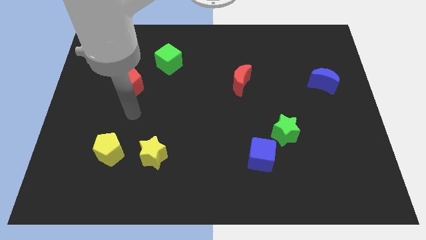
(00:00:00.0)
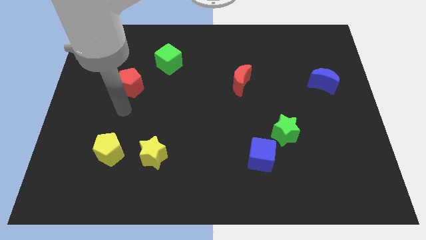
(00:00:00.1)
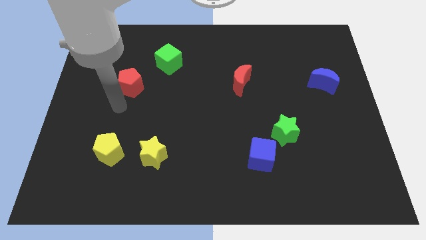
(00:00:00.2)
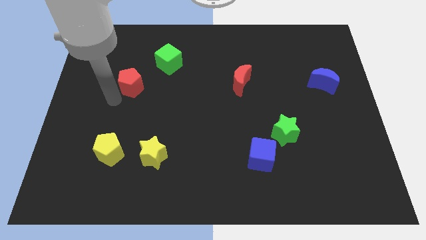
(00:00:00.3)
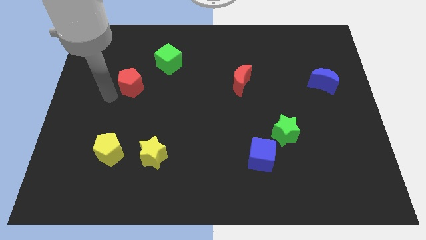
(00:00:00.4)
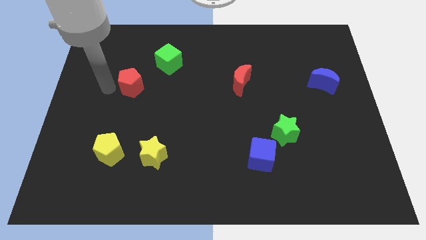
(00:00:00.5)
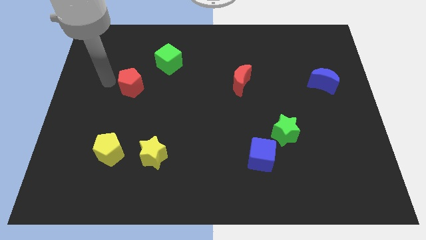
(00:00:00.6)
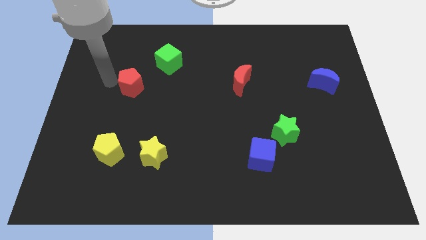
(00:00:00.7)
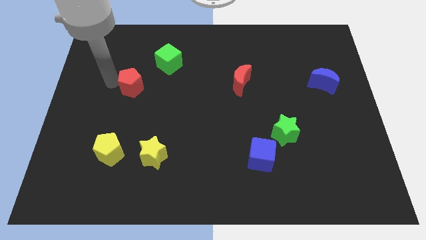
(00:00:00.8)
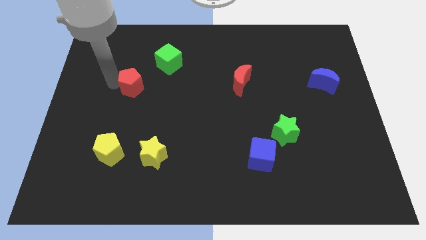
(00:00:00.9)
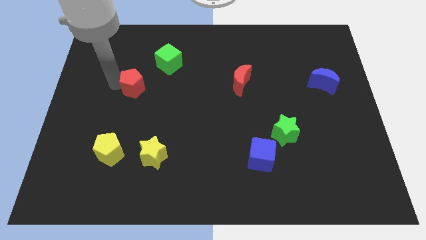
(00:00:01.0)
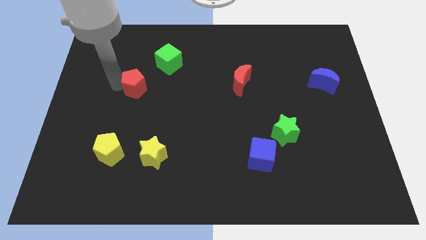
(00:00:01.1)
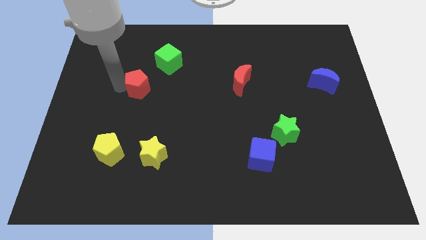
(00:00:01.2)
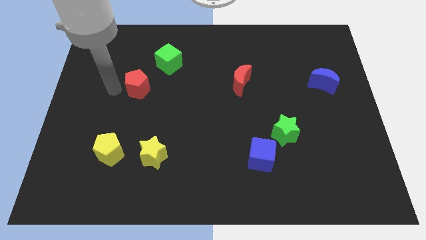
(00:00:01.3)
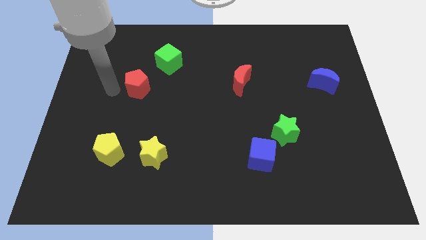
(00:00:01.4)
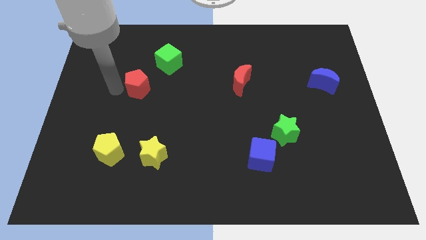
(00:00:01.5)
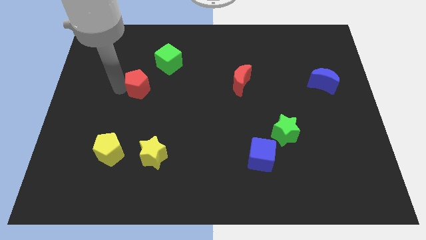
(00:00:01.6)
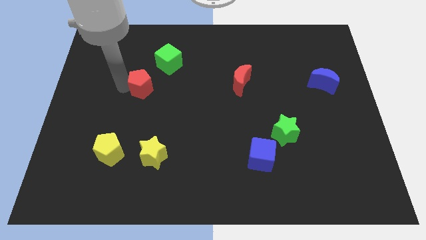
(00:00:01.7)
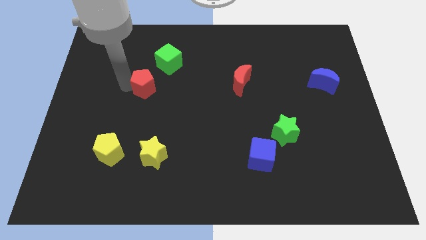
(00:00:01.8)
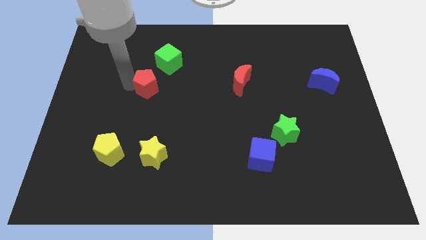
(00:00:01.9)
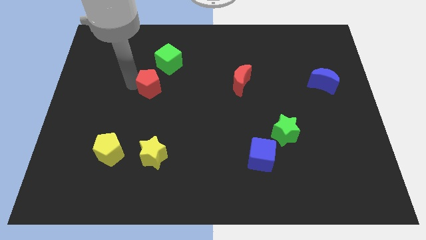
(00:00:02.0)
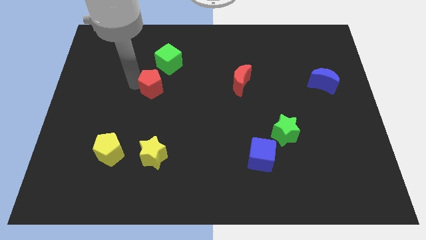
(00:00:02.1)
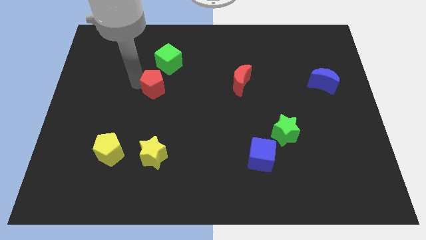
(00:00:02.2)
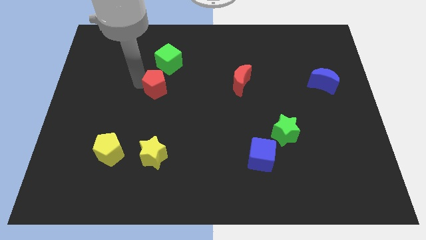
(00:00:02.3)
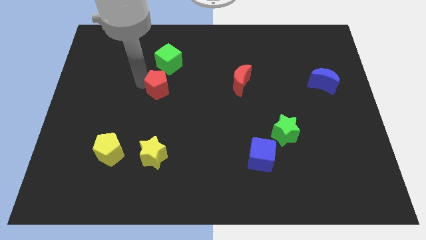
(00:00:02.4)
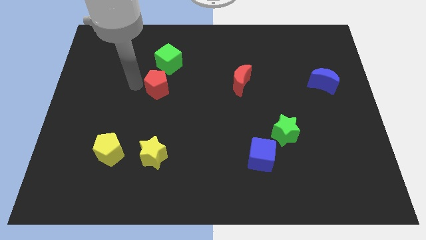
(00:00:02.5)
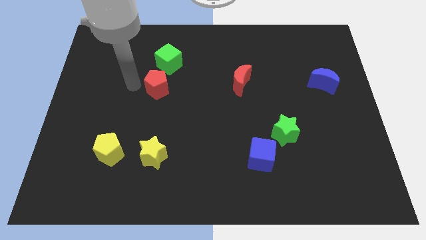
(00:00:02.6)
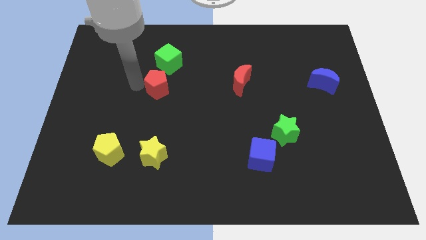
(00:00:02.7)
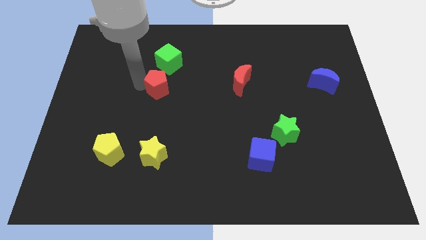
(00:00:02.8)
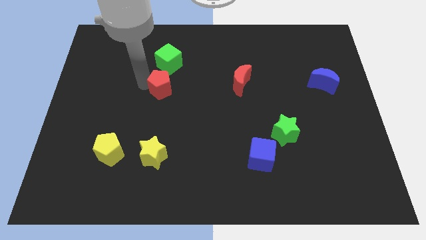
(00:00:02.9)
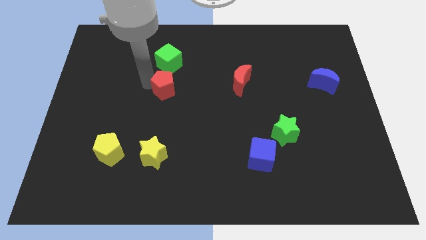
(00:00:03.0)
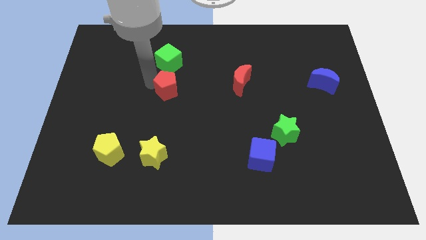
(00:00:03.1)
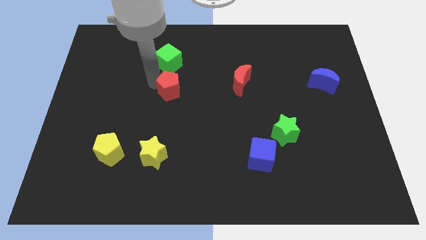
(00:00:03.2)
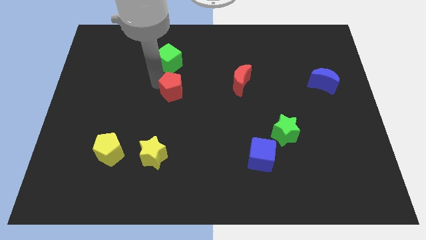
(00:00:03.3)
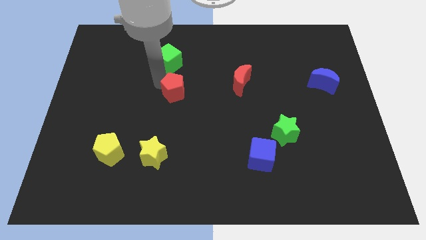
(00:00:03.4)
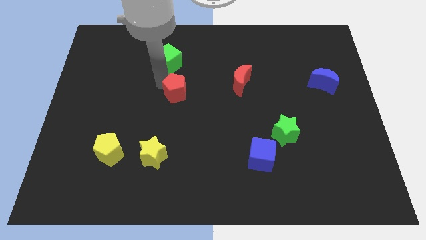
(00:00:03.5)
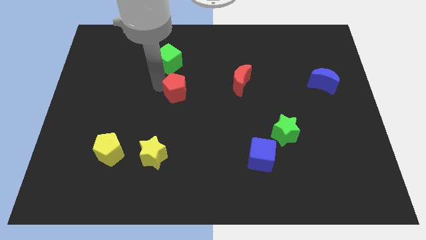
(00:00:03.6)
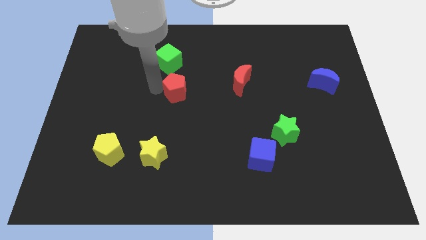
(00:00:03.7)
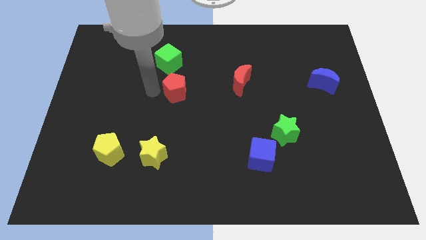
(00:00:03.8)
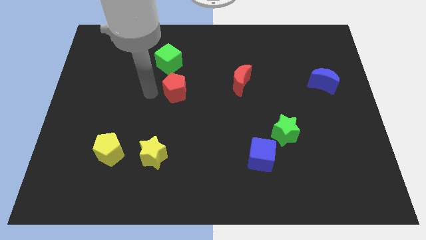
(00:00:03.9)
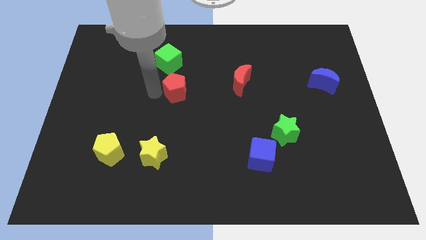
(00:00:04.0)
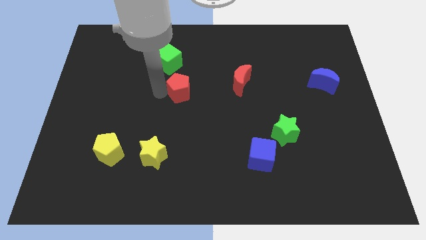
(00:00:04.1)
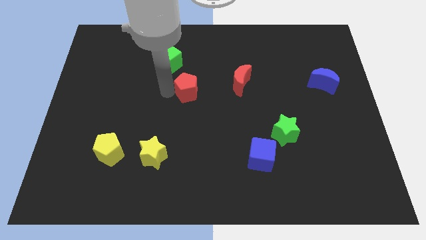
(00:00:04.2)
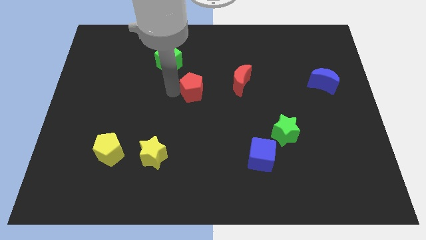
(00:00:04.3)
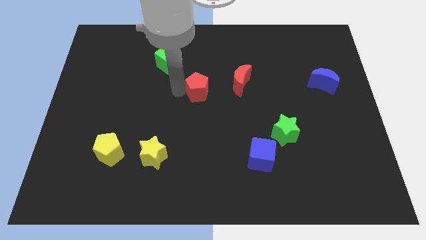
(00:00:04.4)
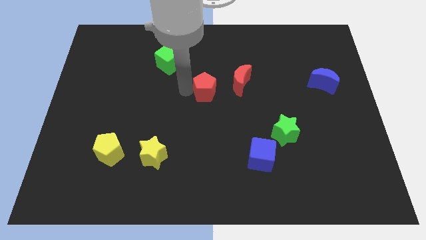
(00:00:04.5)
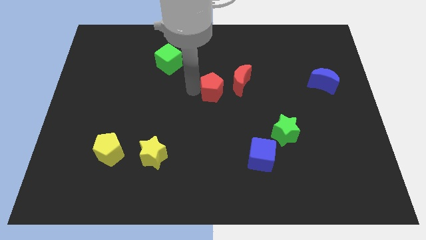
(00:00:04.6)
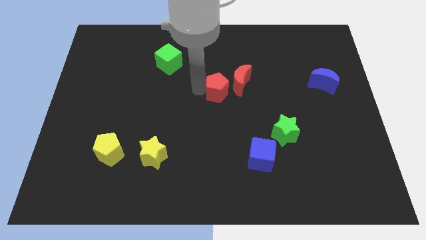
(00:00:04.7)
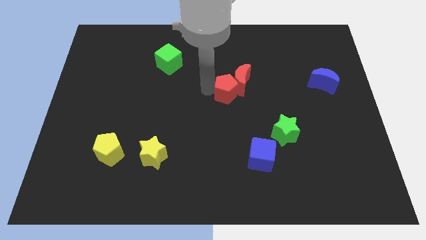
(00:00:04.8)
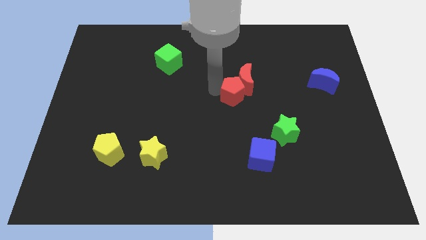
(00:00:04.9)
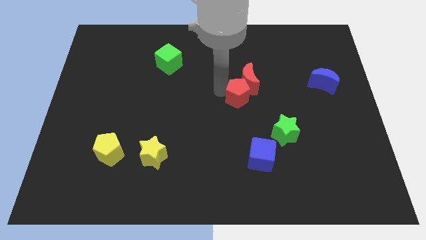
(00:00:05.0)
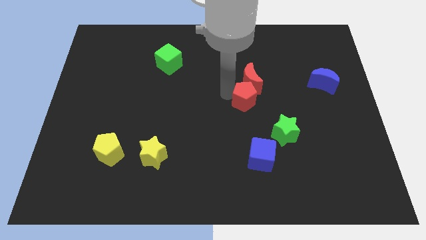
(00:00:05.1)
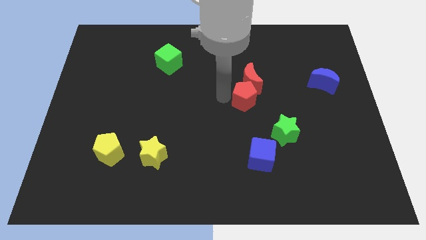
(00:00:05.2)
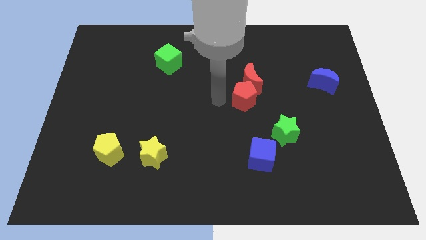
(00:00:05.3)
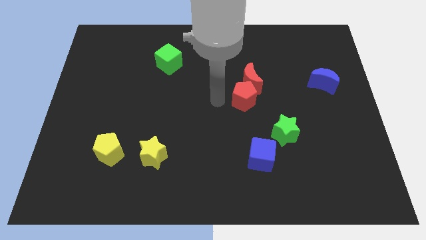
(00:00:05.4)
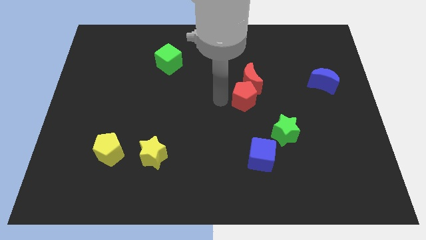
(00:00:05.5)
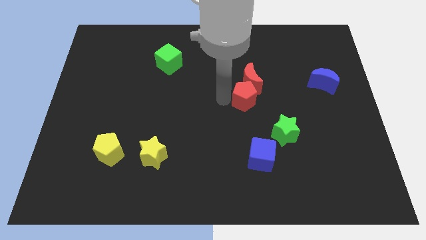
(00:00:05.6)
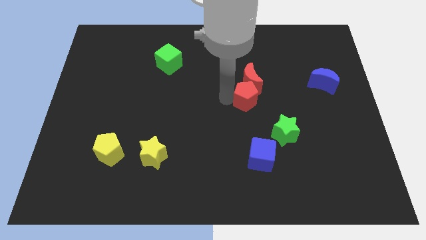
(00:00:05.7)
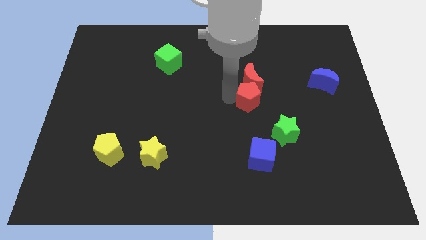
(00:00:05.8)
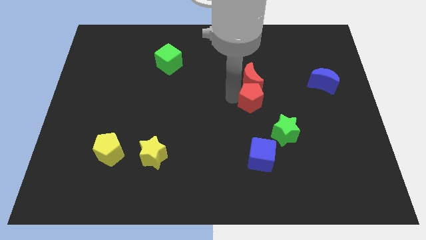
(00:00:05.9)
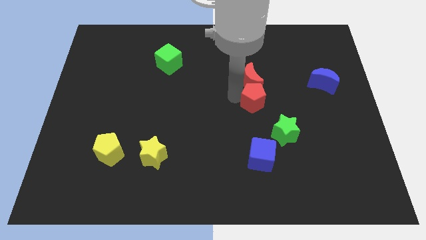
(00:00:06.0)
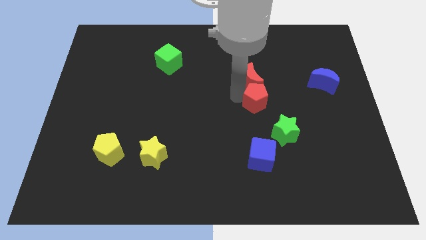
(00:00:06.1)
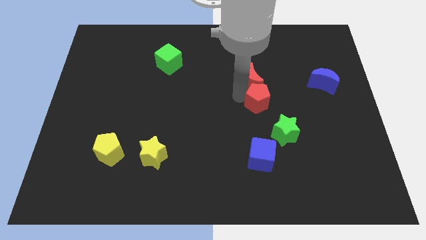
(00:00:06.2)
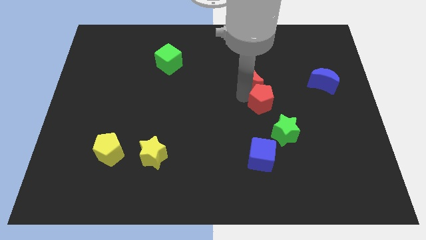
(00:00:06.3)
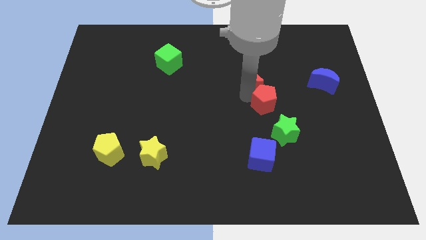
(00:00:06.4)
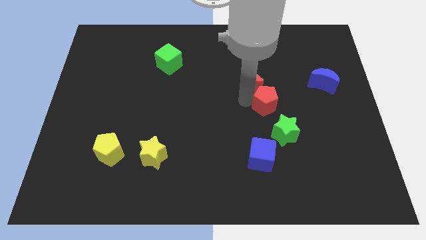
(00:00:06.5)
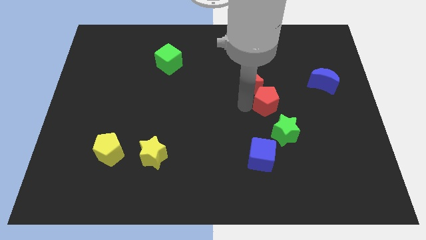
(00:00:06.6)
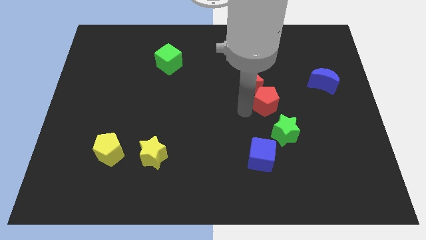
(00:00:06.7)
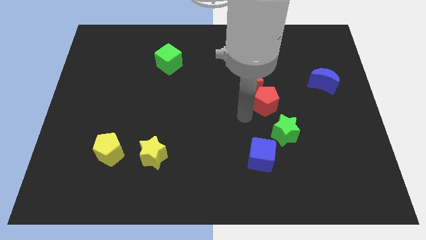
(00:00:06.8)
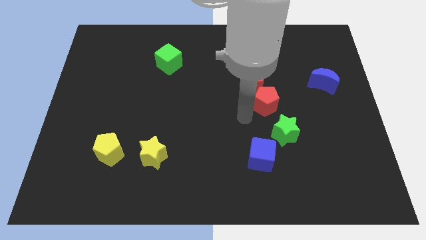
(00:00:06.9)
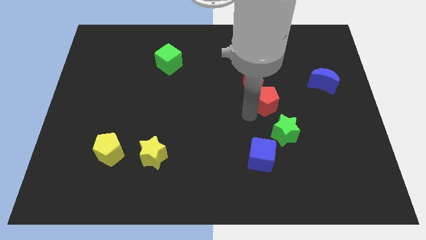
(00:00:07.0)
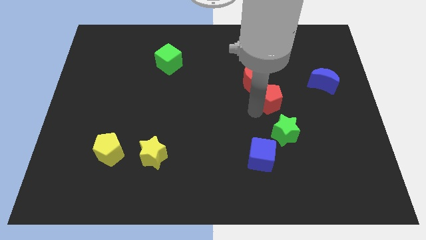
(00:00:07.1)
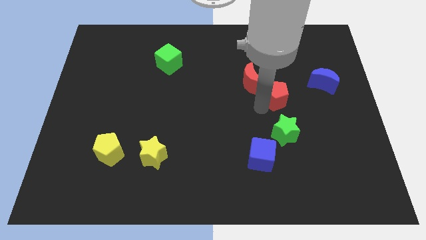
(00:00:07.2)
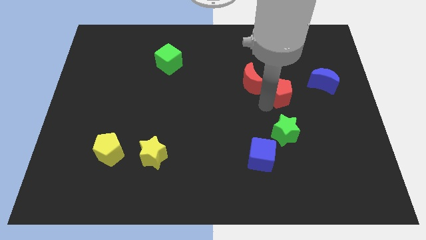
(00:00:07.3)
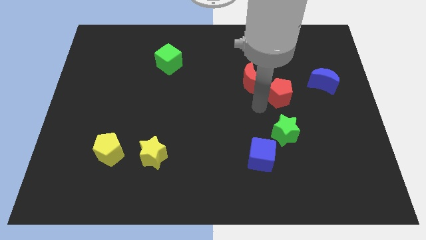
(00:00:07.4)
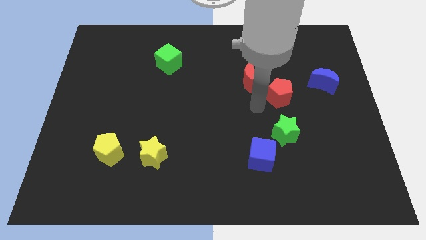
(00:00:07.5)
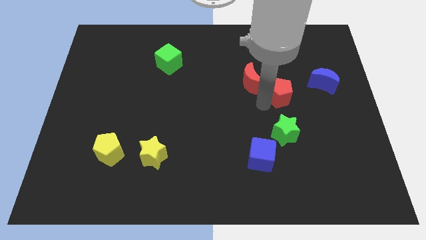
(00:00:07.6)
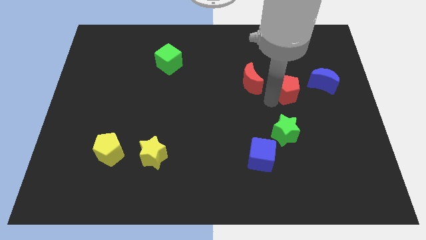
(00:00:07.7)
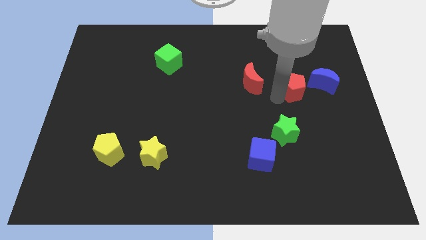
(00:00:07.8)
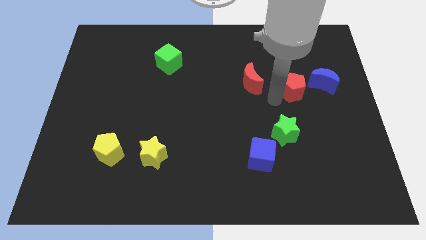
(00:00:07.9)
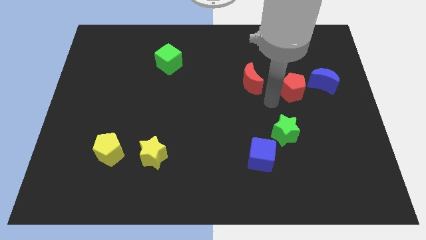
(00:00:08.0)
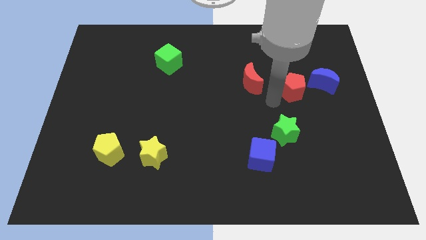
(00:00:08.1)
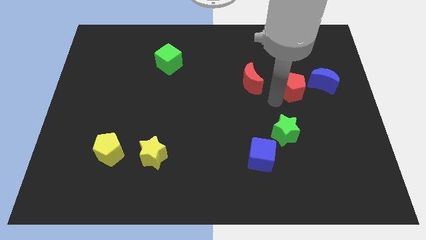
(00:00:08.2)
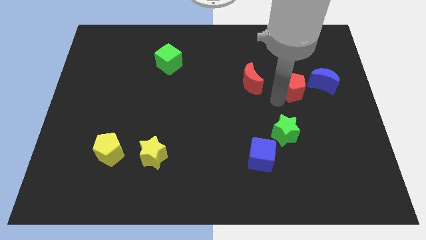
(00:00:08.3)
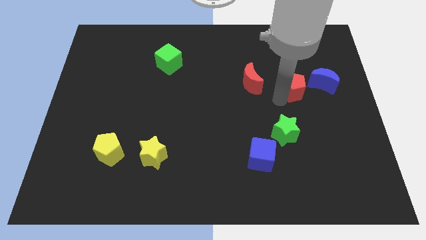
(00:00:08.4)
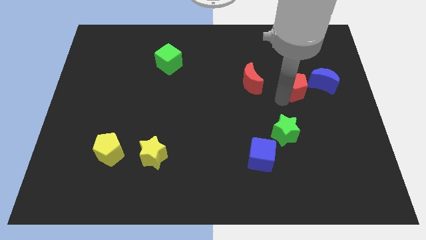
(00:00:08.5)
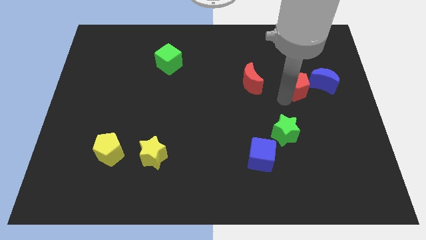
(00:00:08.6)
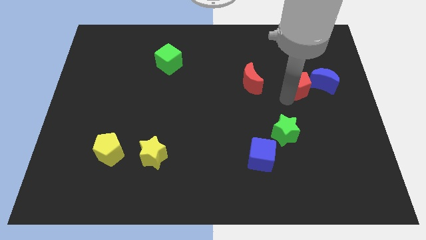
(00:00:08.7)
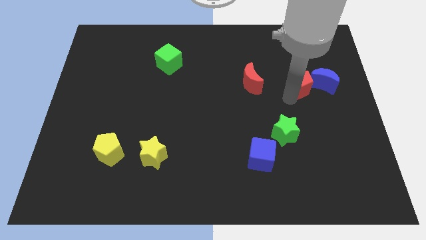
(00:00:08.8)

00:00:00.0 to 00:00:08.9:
put the red pentagon towards the blue moon
